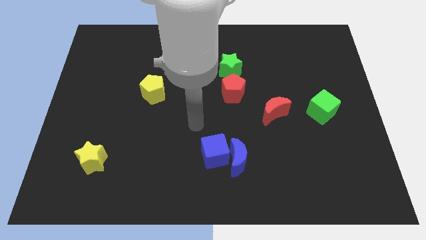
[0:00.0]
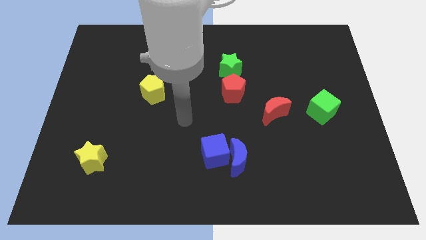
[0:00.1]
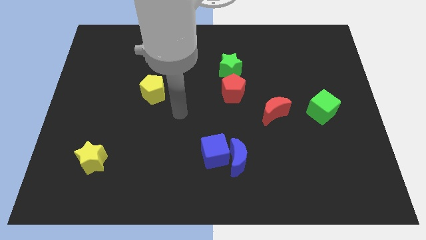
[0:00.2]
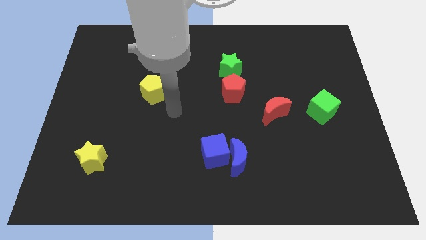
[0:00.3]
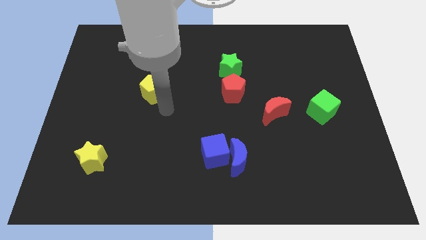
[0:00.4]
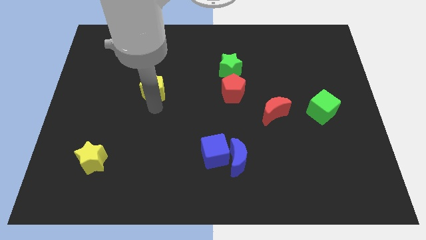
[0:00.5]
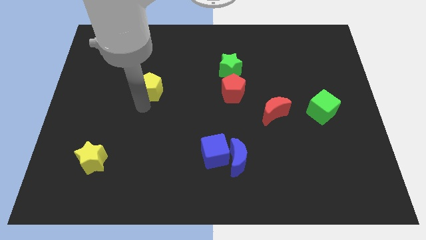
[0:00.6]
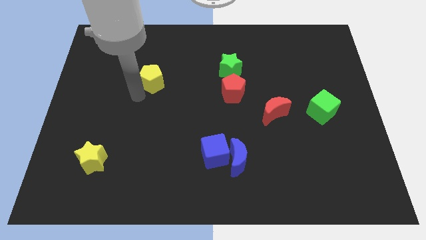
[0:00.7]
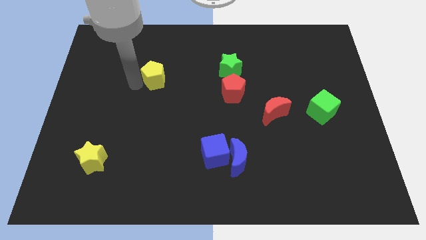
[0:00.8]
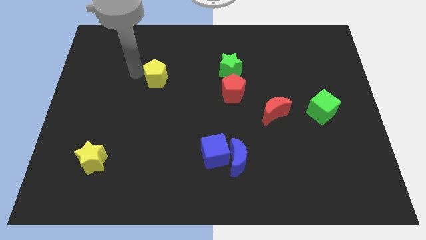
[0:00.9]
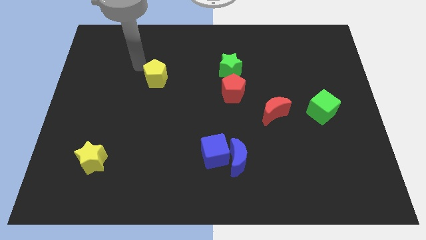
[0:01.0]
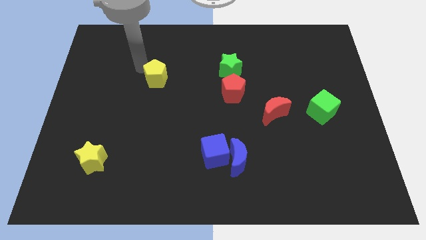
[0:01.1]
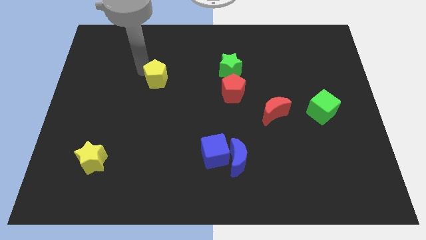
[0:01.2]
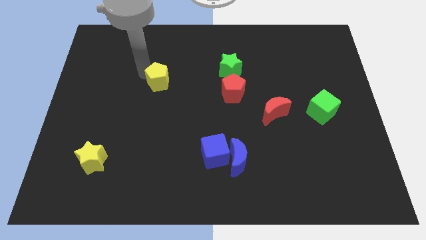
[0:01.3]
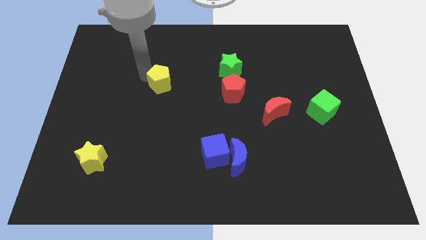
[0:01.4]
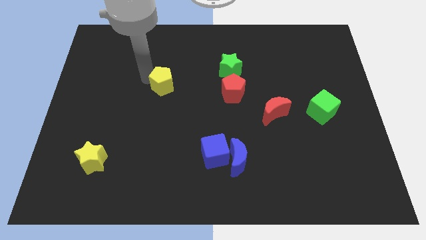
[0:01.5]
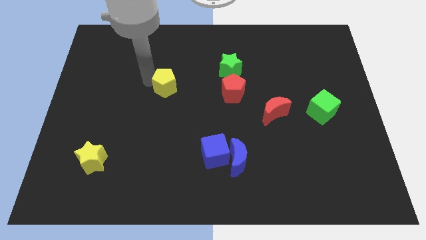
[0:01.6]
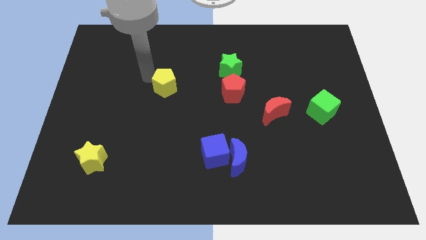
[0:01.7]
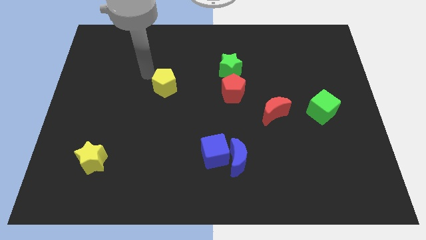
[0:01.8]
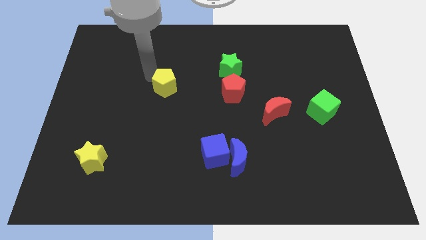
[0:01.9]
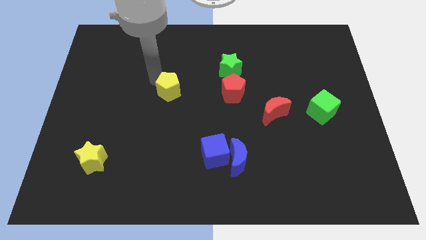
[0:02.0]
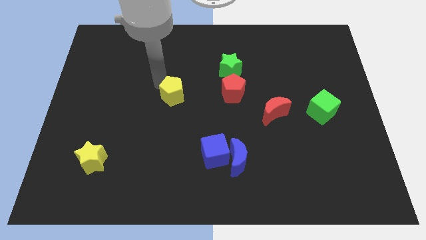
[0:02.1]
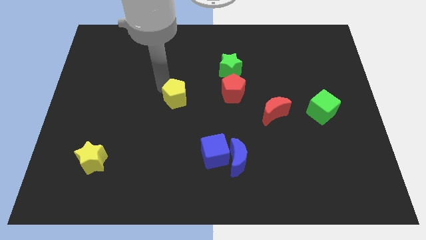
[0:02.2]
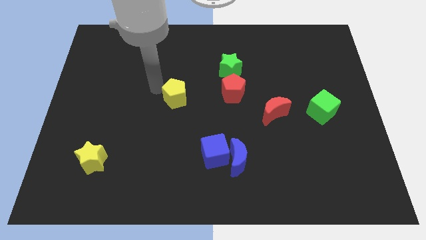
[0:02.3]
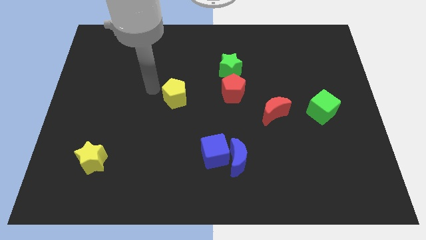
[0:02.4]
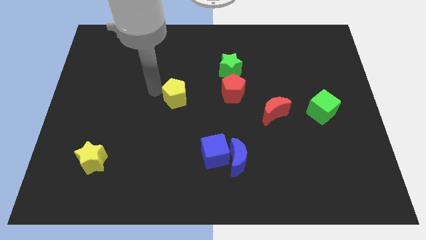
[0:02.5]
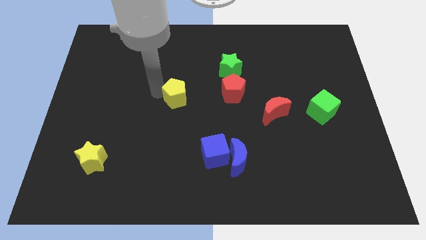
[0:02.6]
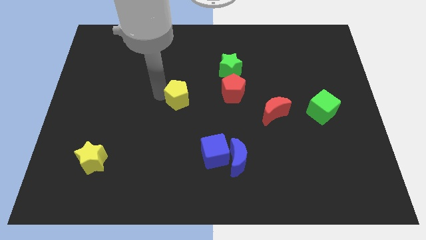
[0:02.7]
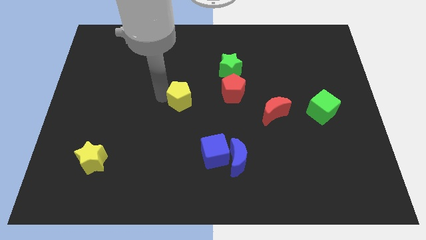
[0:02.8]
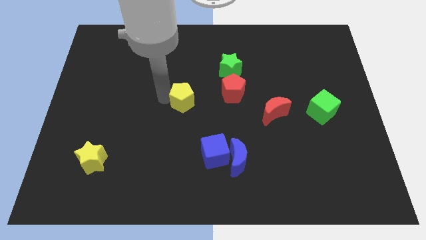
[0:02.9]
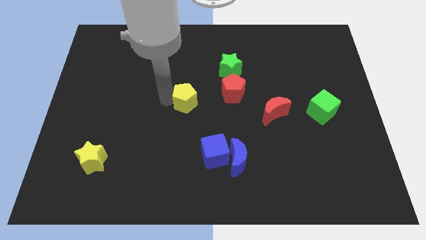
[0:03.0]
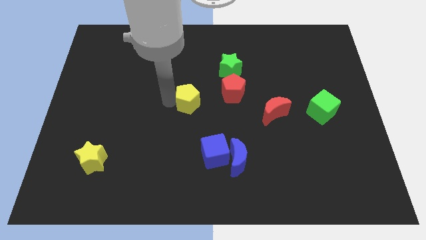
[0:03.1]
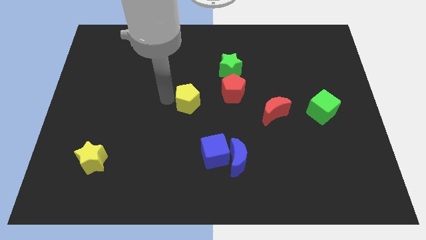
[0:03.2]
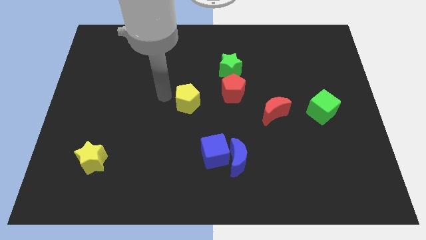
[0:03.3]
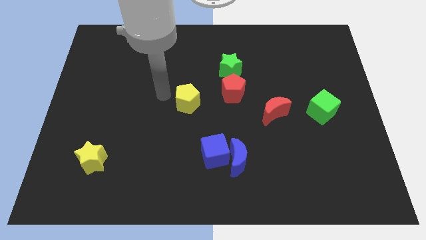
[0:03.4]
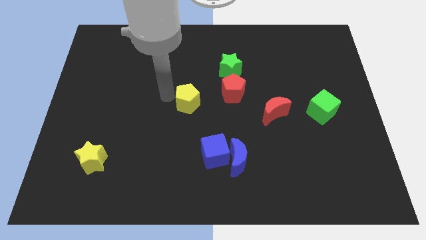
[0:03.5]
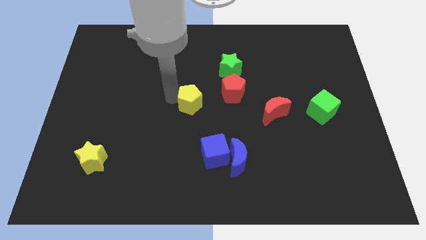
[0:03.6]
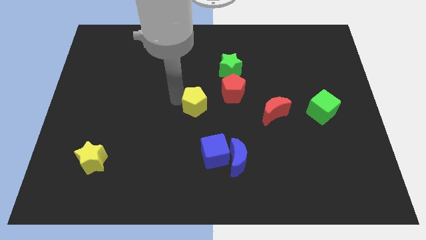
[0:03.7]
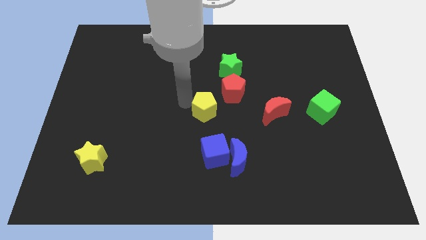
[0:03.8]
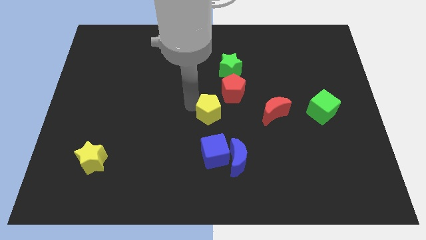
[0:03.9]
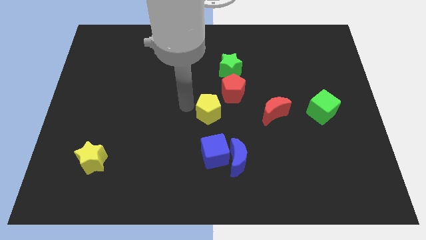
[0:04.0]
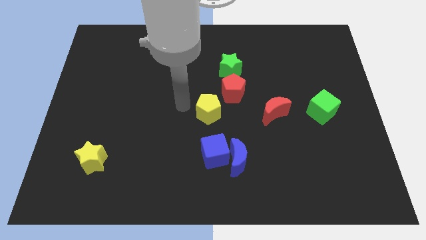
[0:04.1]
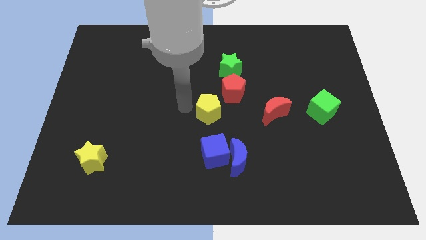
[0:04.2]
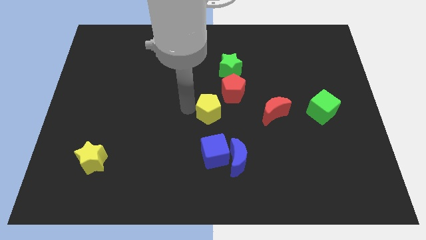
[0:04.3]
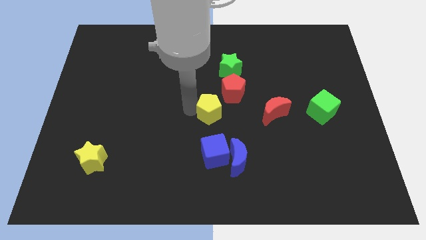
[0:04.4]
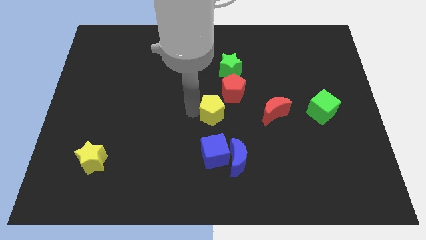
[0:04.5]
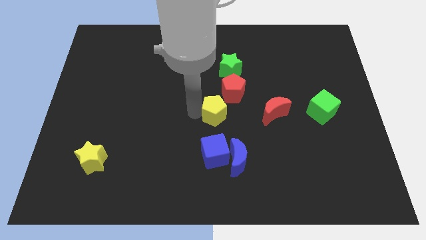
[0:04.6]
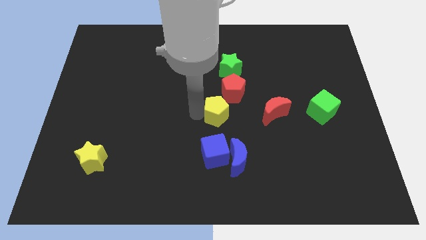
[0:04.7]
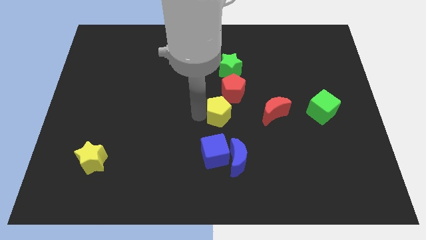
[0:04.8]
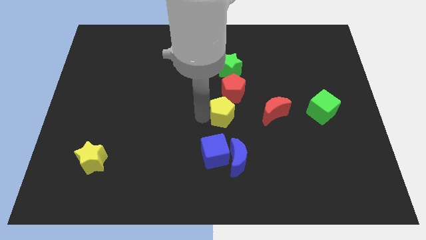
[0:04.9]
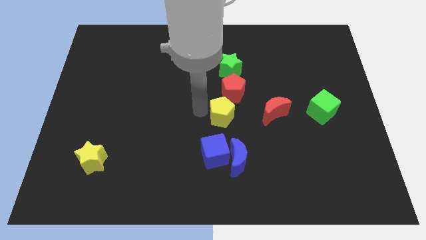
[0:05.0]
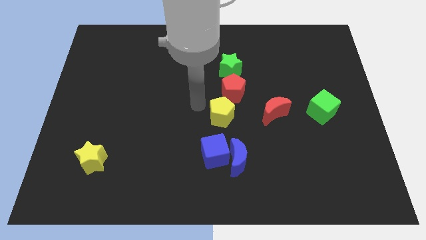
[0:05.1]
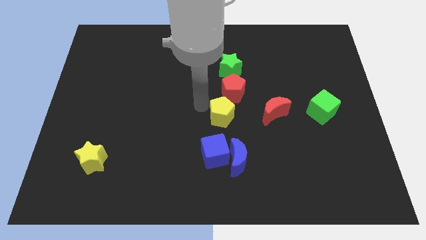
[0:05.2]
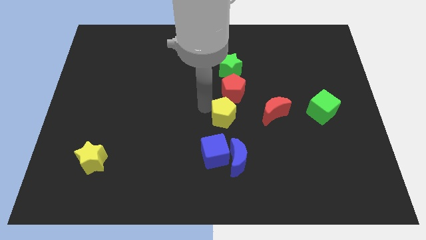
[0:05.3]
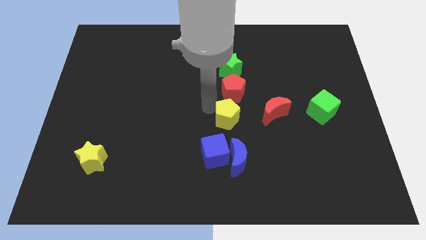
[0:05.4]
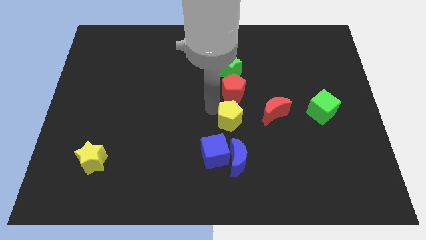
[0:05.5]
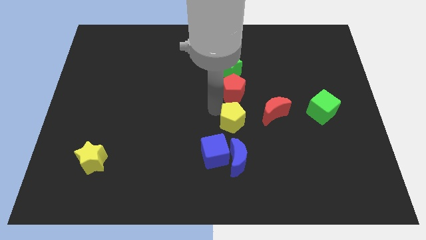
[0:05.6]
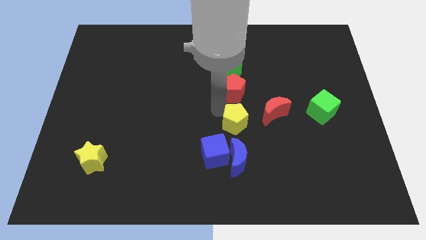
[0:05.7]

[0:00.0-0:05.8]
move the yellow pentagon diagonally down and to the left of the red moon

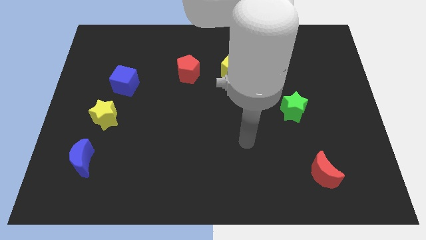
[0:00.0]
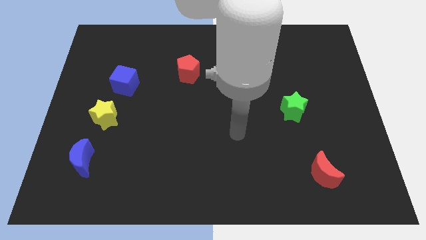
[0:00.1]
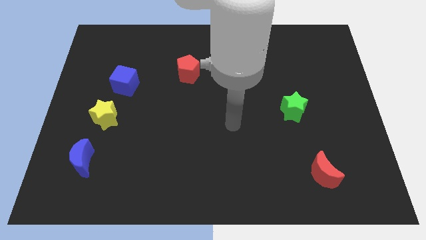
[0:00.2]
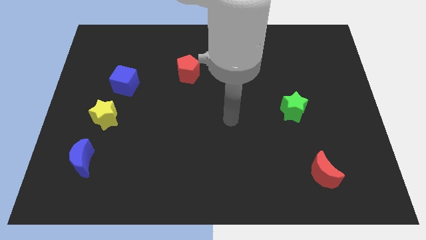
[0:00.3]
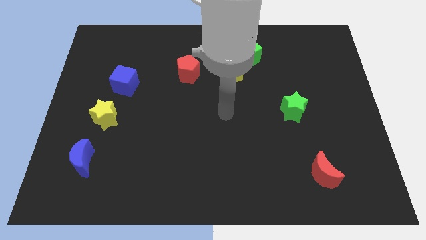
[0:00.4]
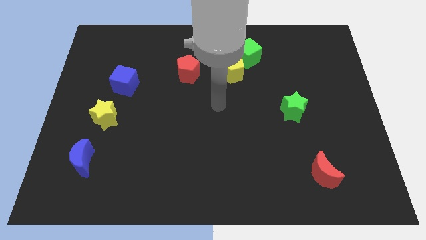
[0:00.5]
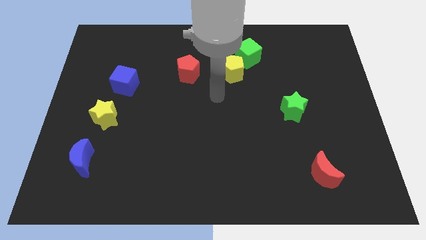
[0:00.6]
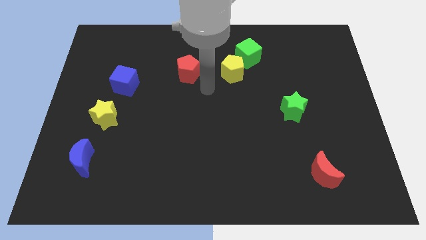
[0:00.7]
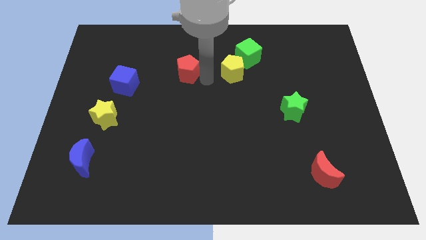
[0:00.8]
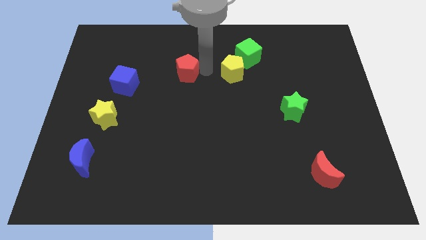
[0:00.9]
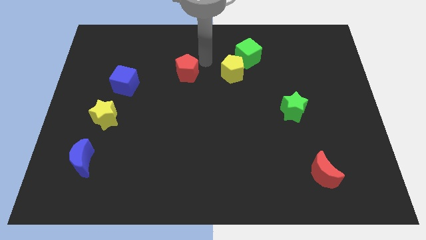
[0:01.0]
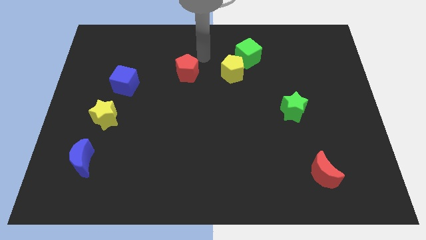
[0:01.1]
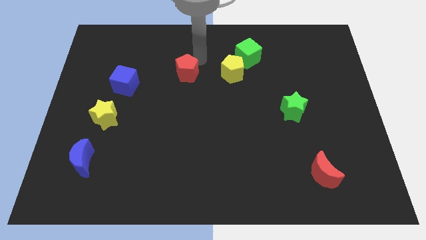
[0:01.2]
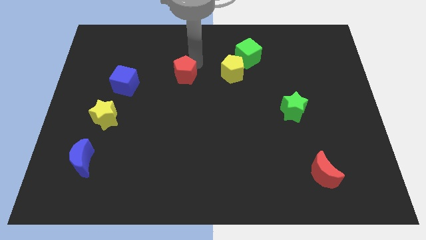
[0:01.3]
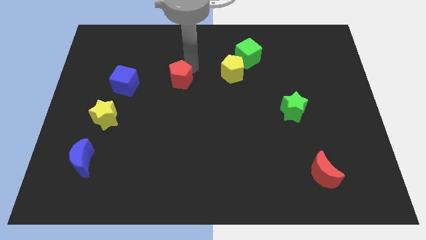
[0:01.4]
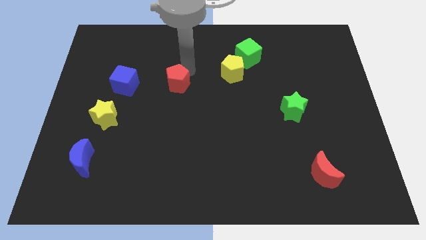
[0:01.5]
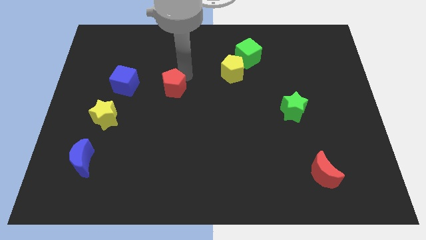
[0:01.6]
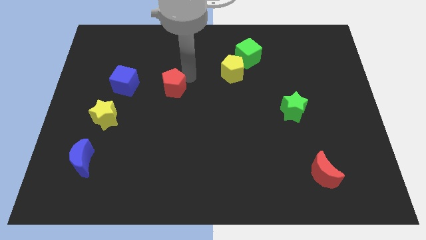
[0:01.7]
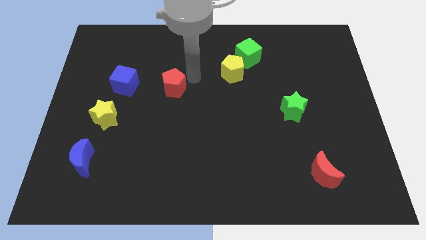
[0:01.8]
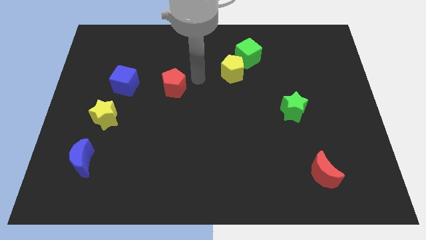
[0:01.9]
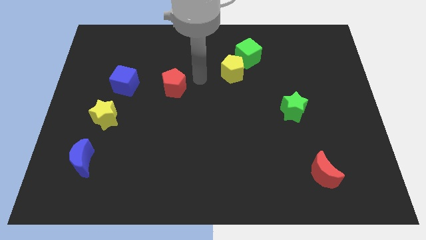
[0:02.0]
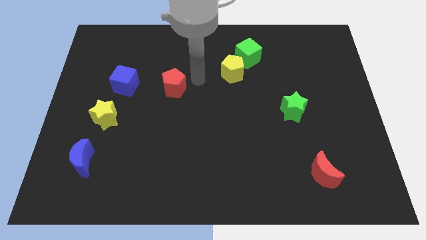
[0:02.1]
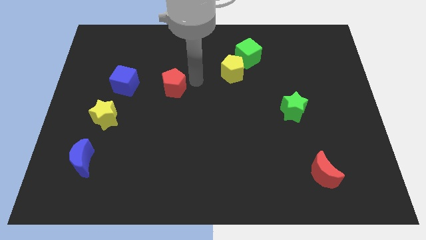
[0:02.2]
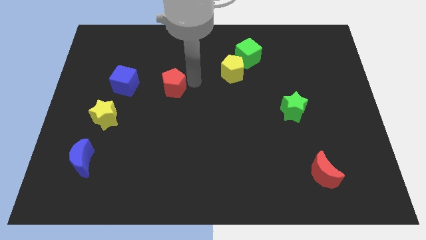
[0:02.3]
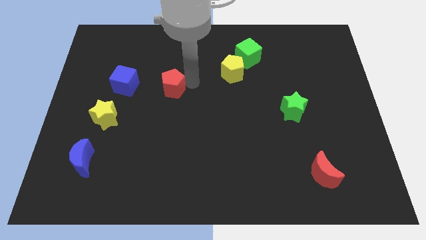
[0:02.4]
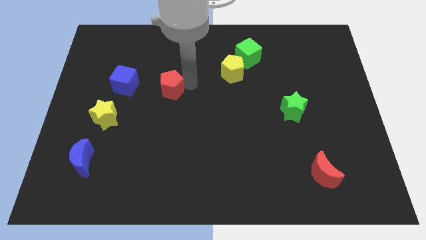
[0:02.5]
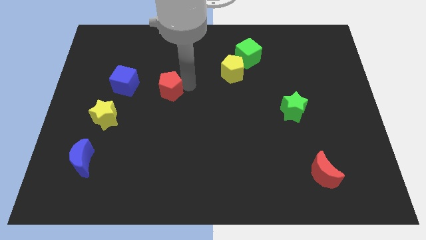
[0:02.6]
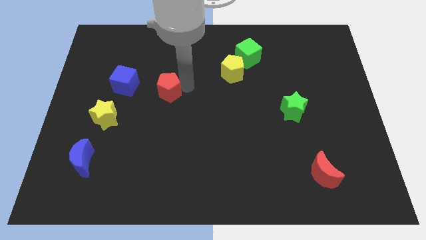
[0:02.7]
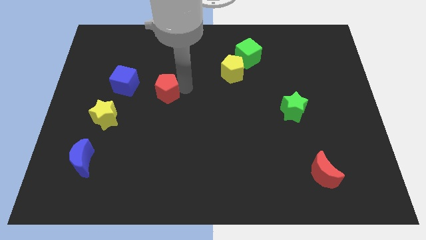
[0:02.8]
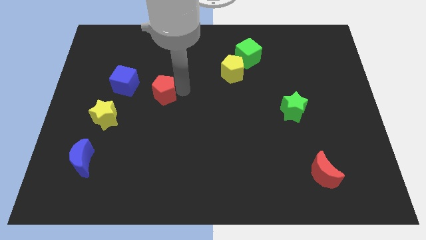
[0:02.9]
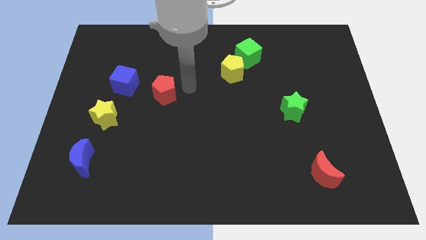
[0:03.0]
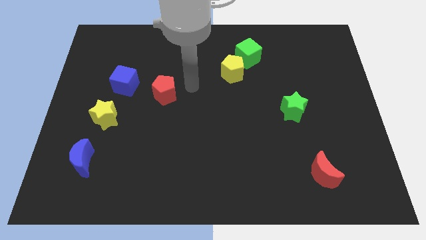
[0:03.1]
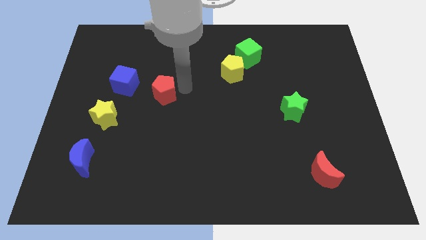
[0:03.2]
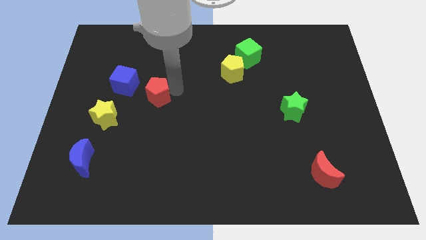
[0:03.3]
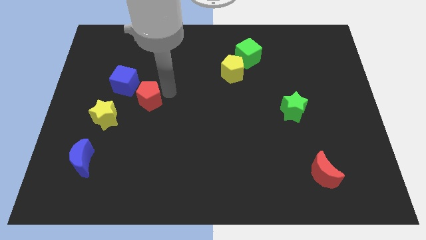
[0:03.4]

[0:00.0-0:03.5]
slide the red pentagon to the top right side of the yellow star
